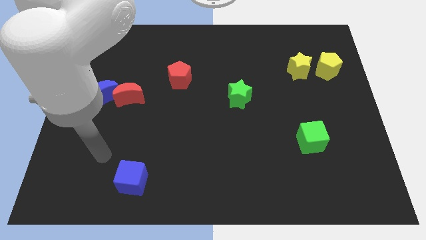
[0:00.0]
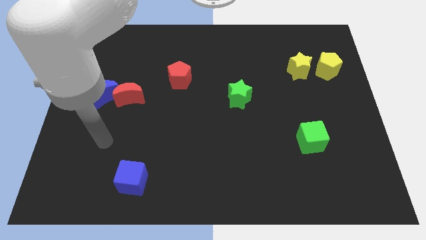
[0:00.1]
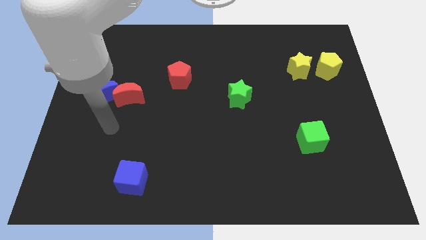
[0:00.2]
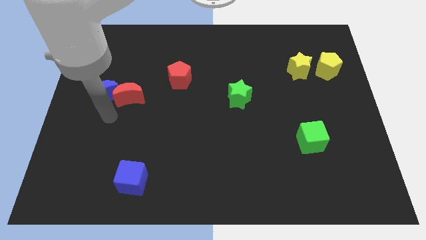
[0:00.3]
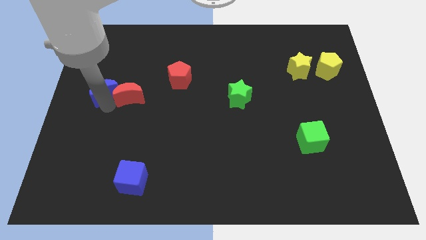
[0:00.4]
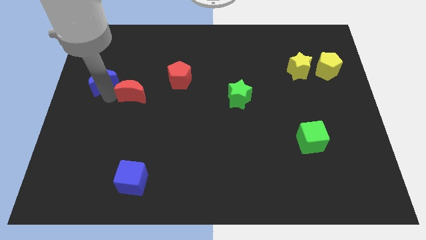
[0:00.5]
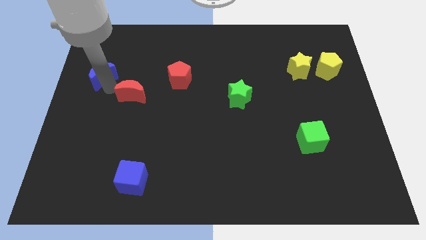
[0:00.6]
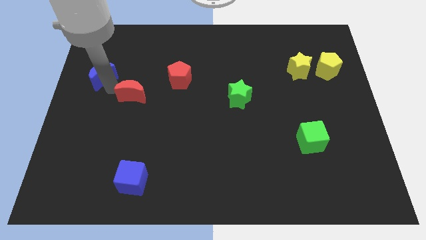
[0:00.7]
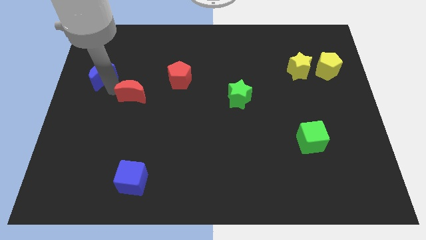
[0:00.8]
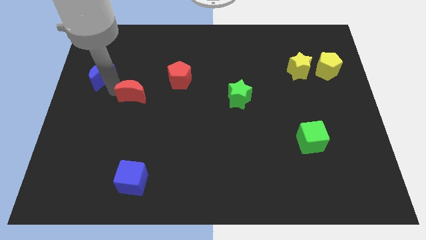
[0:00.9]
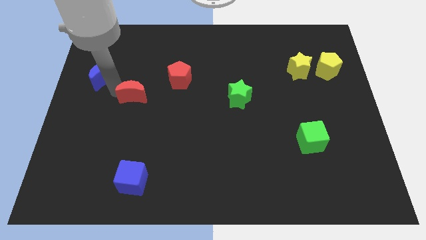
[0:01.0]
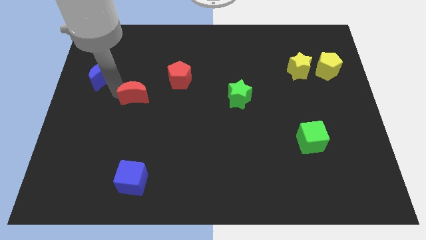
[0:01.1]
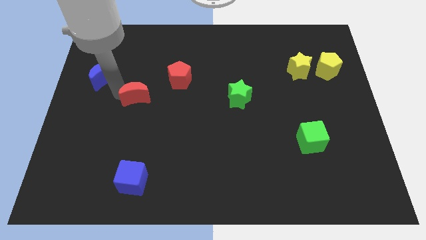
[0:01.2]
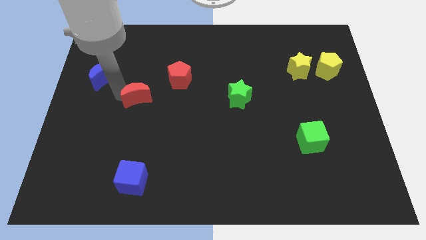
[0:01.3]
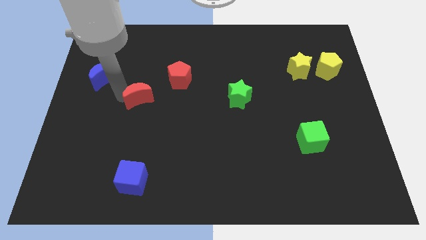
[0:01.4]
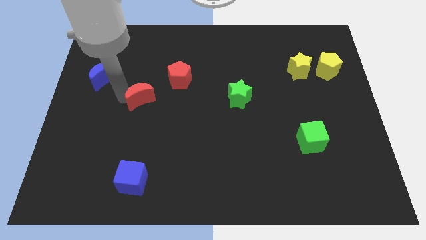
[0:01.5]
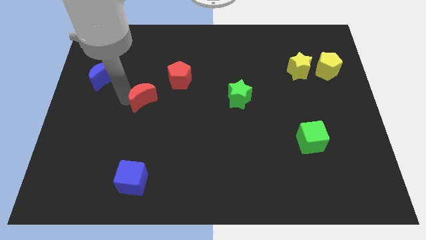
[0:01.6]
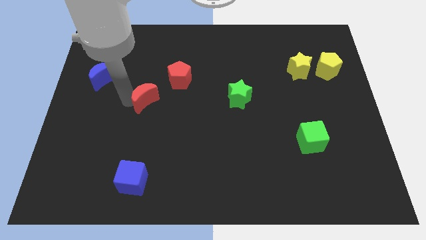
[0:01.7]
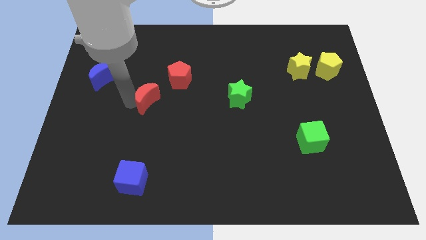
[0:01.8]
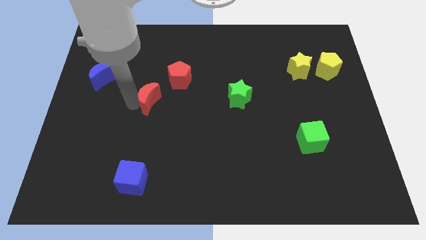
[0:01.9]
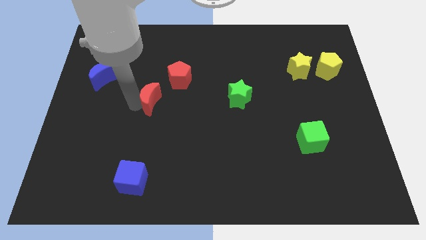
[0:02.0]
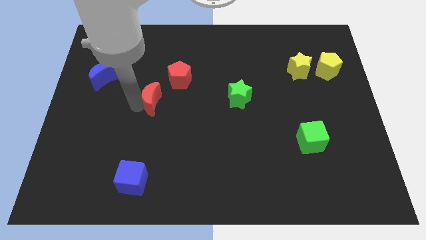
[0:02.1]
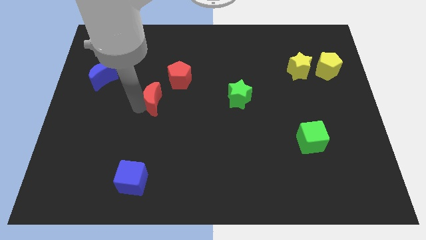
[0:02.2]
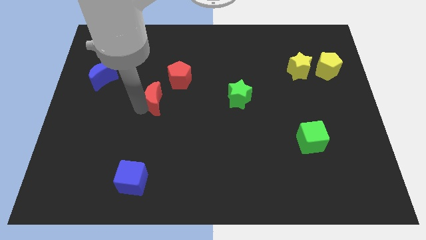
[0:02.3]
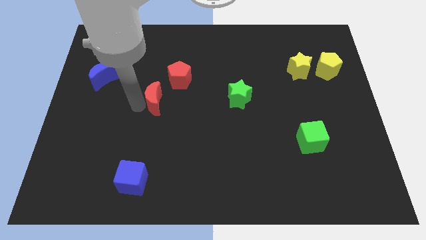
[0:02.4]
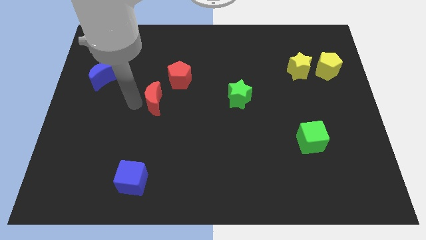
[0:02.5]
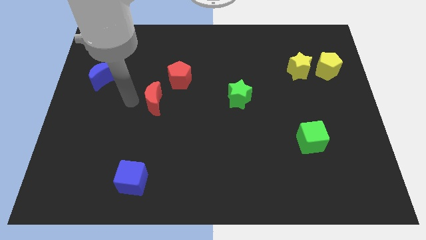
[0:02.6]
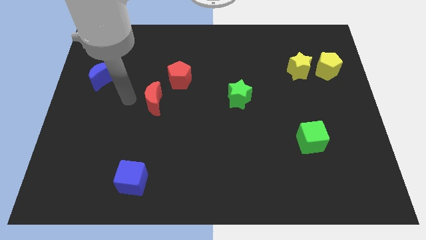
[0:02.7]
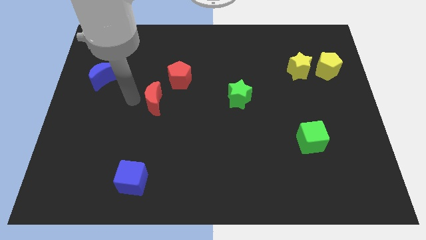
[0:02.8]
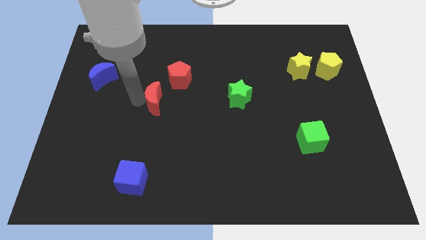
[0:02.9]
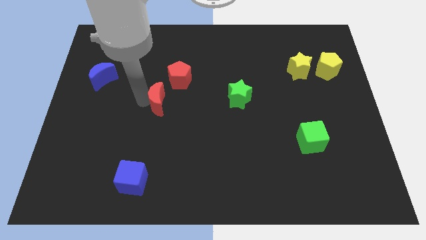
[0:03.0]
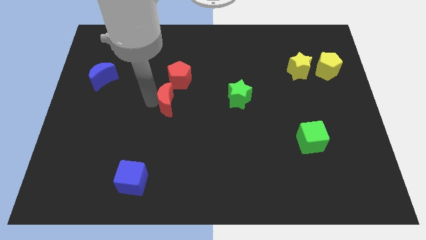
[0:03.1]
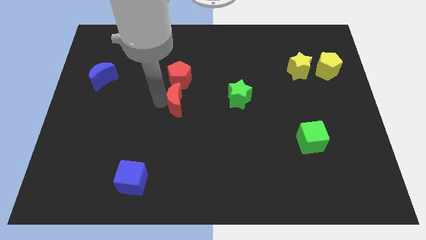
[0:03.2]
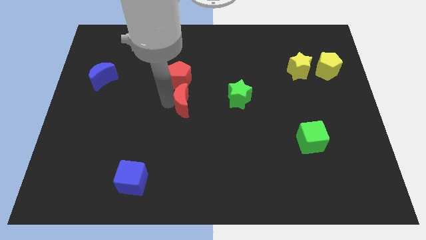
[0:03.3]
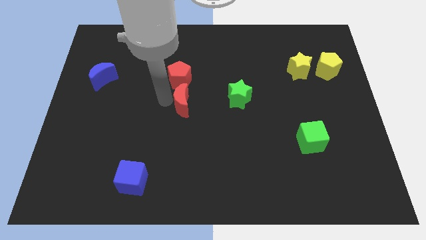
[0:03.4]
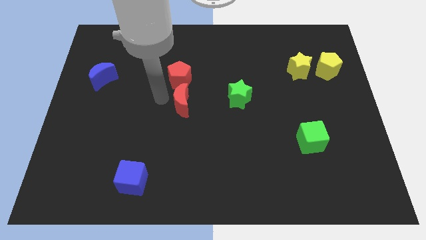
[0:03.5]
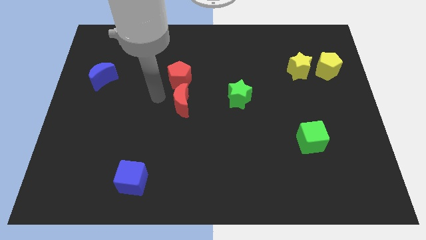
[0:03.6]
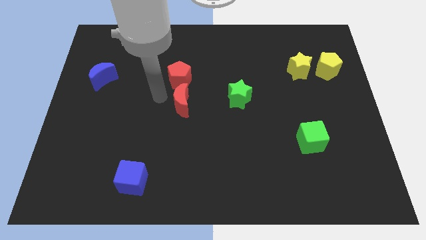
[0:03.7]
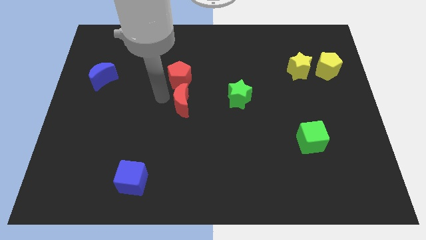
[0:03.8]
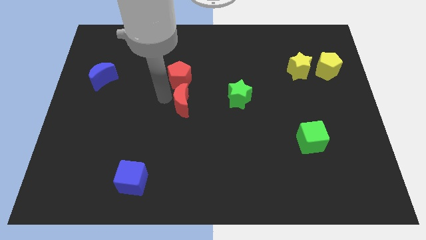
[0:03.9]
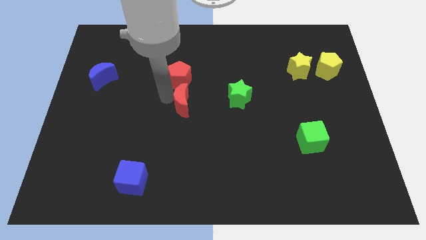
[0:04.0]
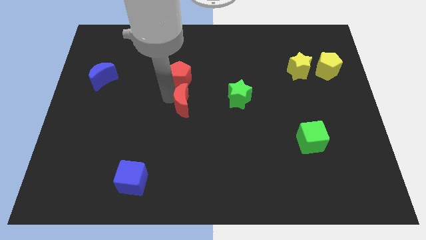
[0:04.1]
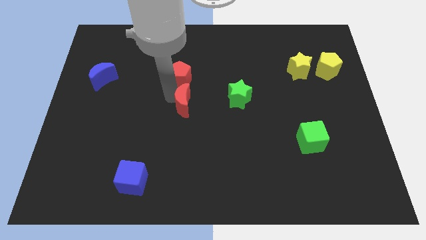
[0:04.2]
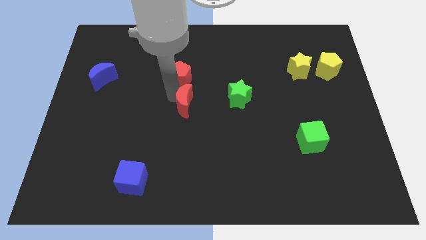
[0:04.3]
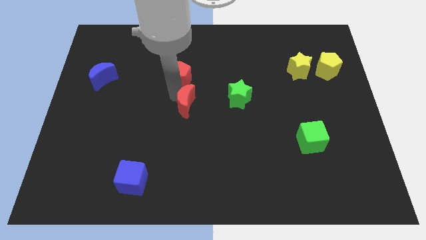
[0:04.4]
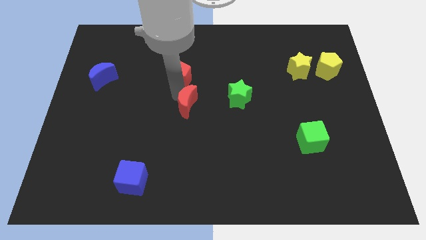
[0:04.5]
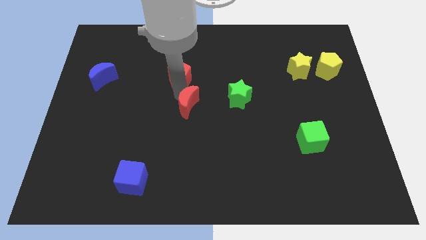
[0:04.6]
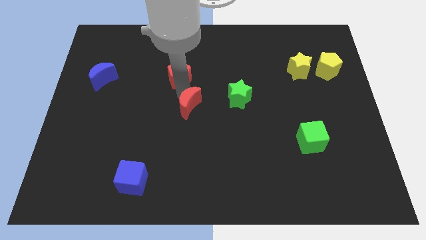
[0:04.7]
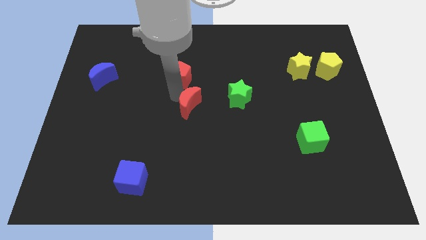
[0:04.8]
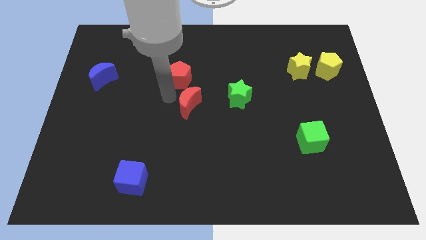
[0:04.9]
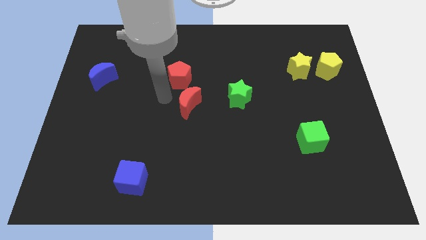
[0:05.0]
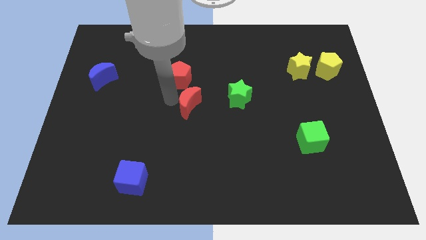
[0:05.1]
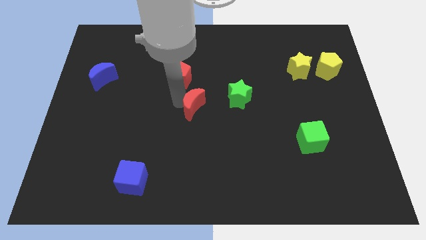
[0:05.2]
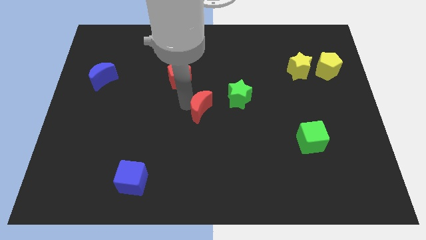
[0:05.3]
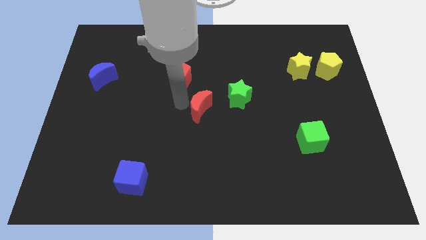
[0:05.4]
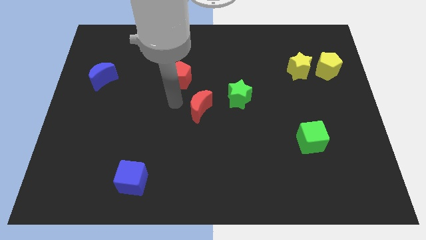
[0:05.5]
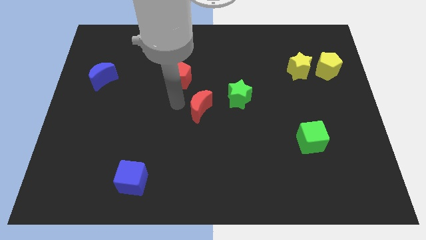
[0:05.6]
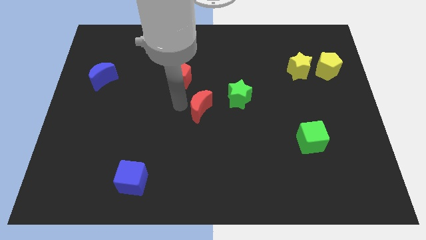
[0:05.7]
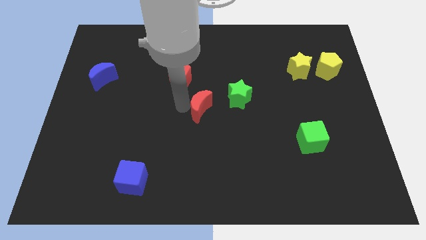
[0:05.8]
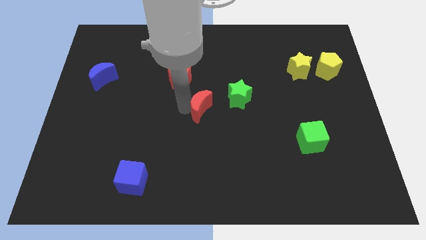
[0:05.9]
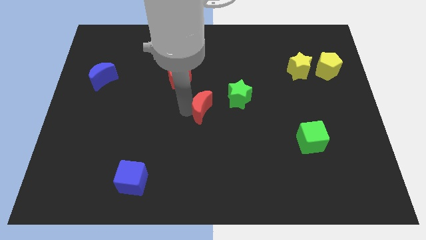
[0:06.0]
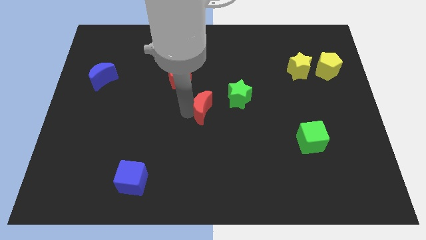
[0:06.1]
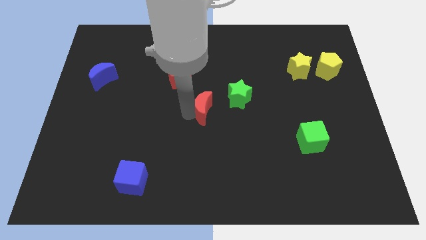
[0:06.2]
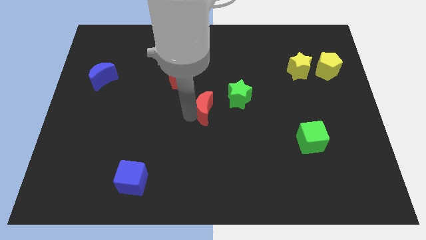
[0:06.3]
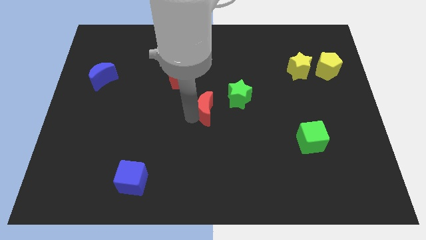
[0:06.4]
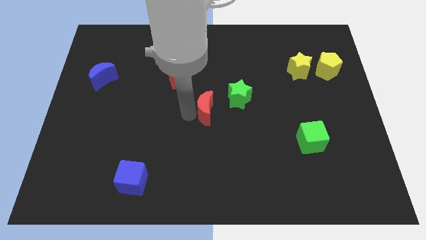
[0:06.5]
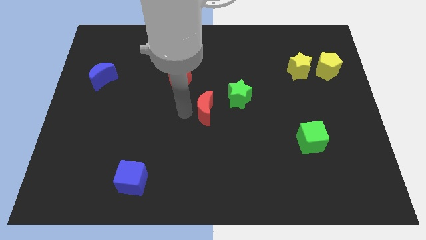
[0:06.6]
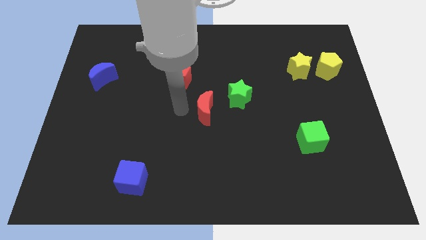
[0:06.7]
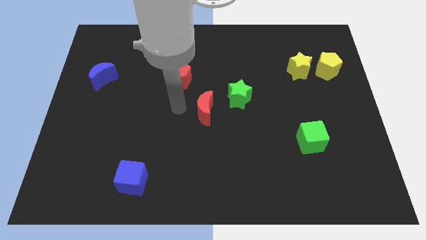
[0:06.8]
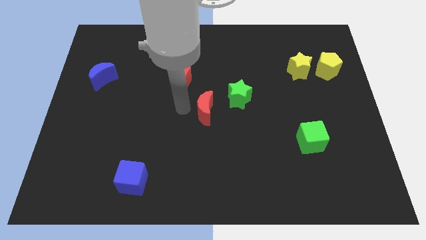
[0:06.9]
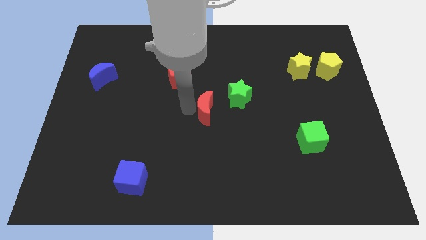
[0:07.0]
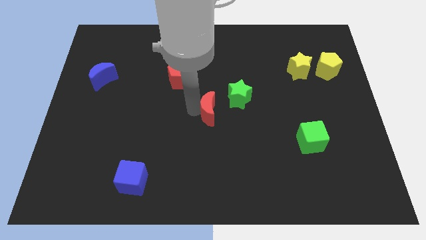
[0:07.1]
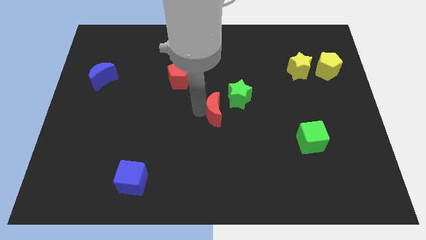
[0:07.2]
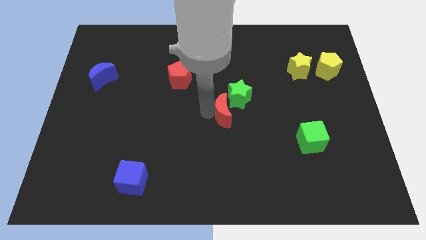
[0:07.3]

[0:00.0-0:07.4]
push the red moon to the right

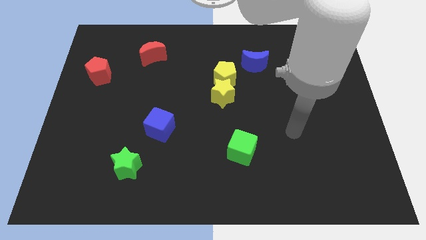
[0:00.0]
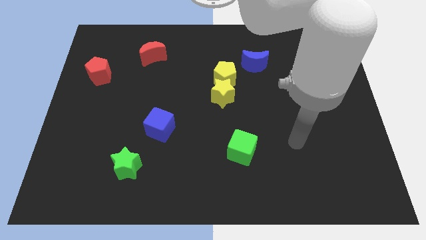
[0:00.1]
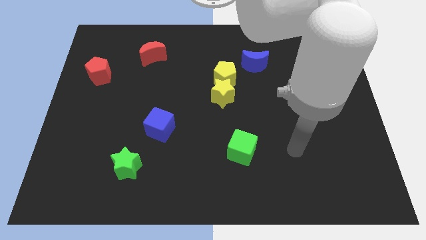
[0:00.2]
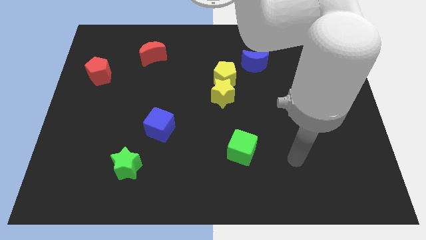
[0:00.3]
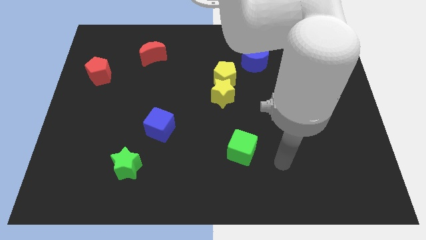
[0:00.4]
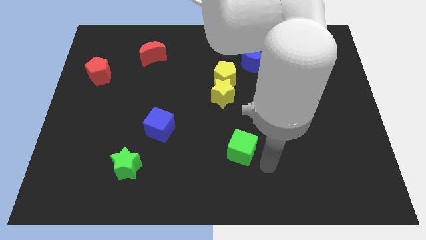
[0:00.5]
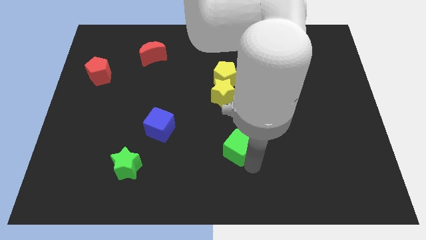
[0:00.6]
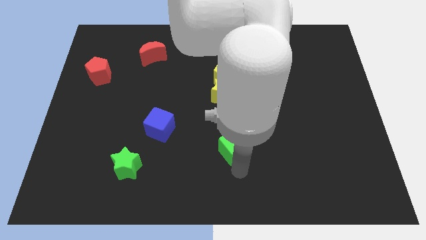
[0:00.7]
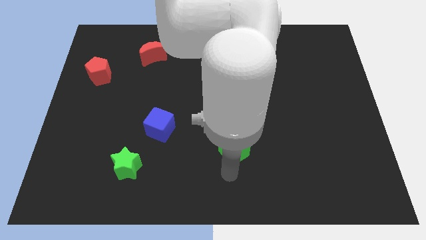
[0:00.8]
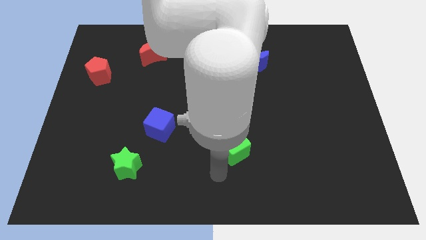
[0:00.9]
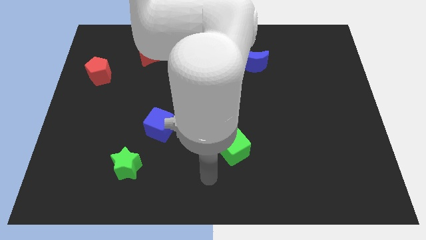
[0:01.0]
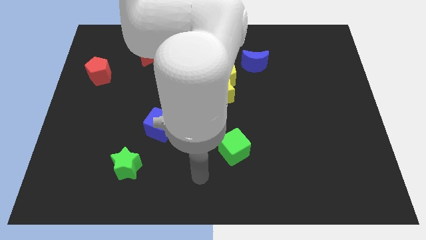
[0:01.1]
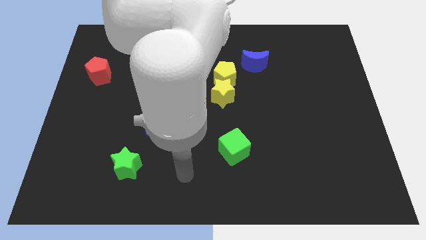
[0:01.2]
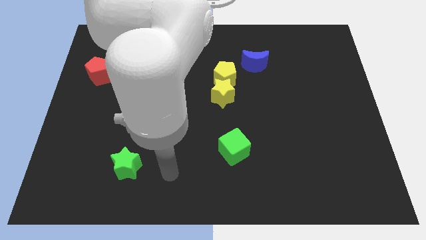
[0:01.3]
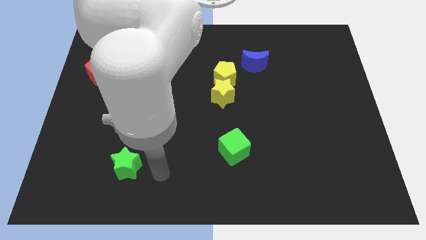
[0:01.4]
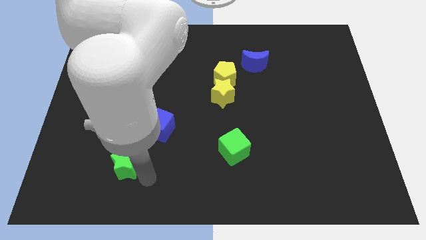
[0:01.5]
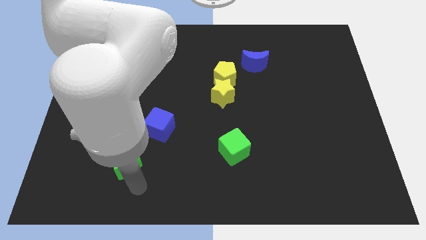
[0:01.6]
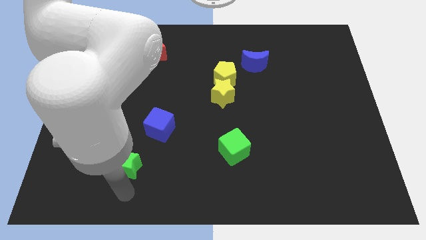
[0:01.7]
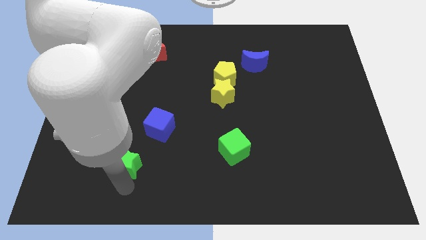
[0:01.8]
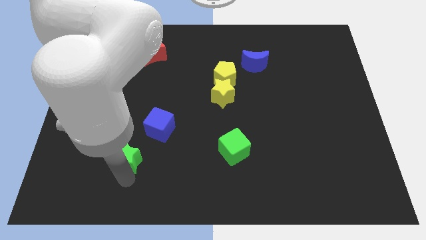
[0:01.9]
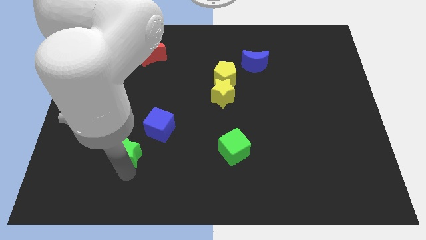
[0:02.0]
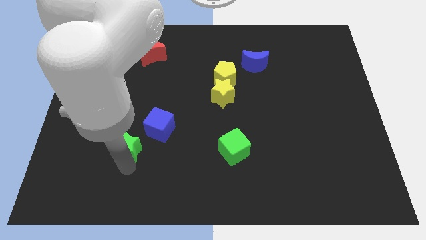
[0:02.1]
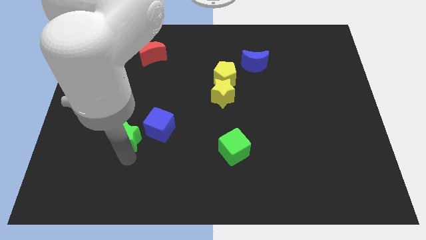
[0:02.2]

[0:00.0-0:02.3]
push the green star upwards a little bit
